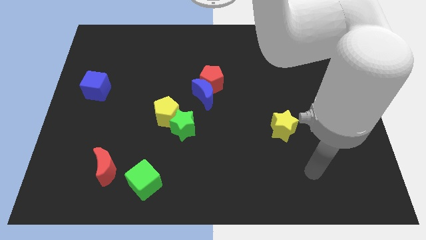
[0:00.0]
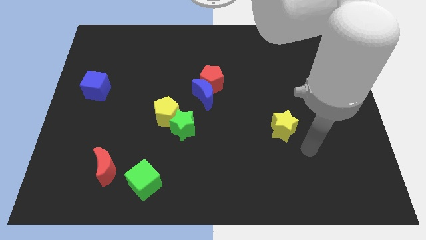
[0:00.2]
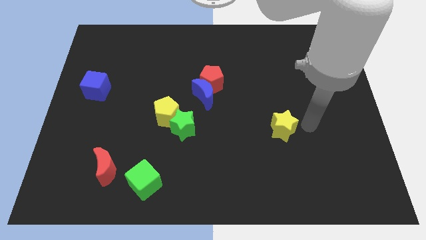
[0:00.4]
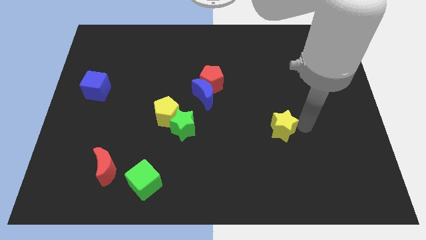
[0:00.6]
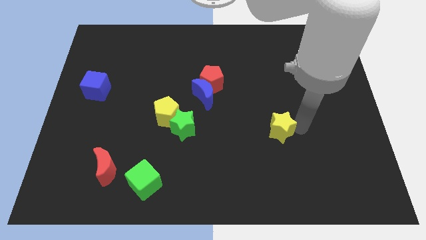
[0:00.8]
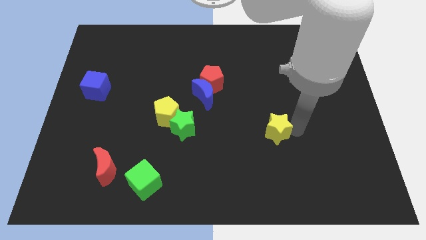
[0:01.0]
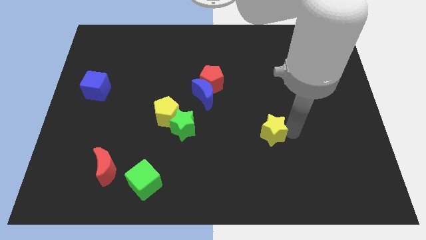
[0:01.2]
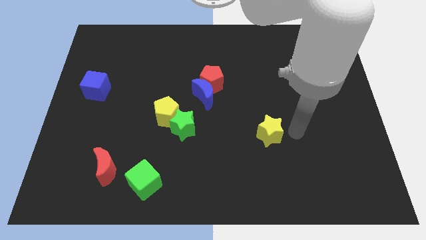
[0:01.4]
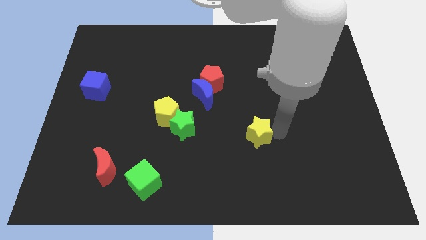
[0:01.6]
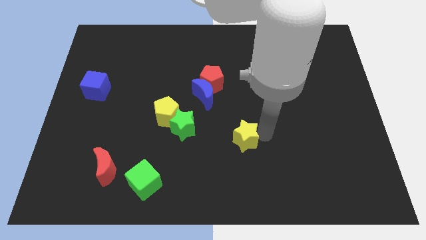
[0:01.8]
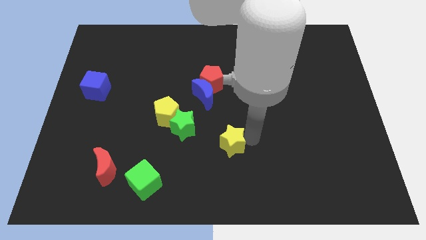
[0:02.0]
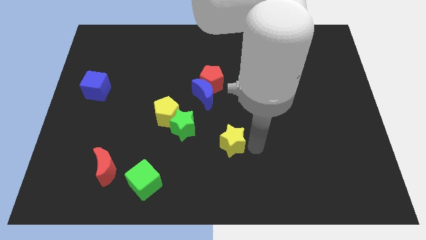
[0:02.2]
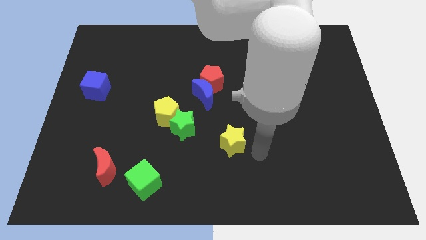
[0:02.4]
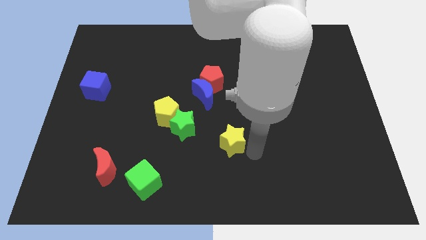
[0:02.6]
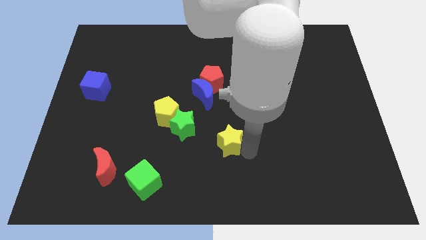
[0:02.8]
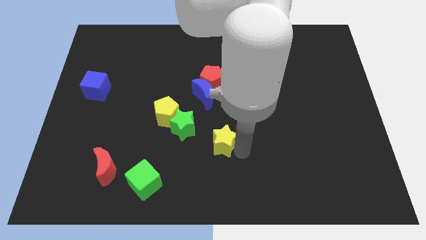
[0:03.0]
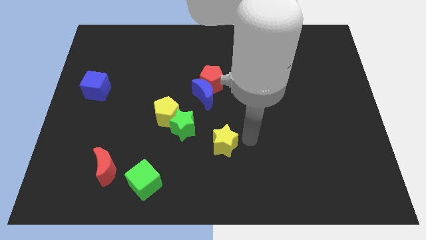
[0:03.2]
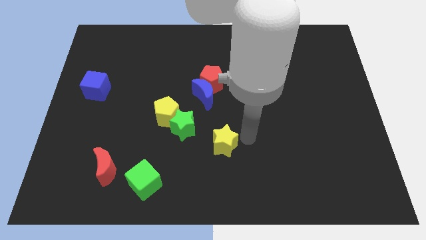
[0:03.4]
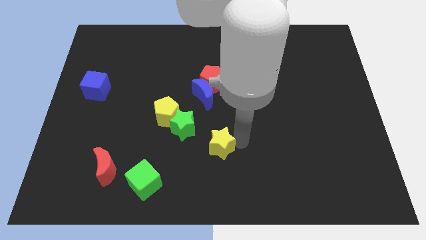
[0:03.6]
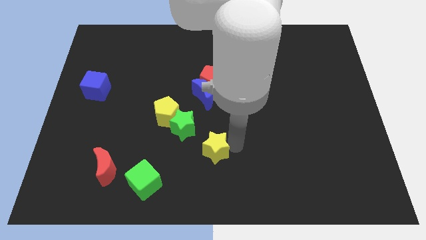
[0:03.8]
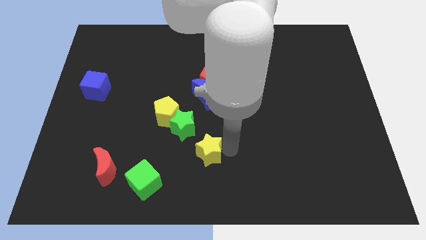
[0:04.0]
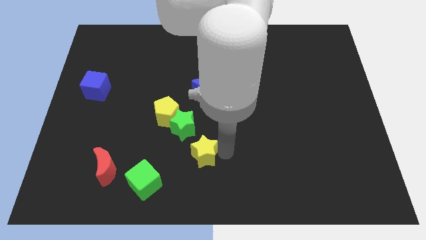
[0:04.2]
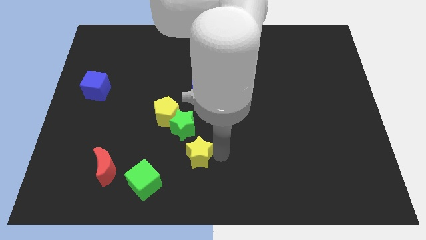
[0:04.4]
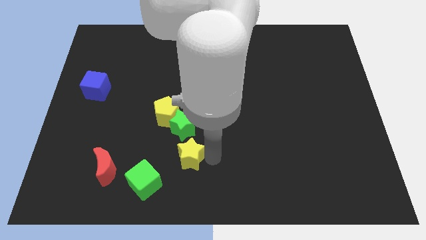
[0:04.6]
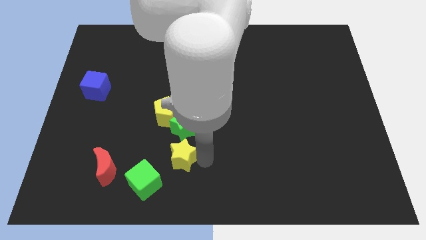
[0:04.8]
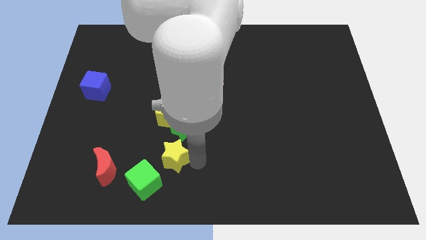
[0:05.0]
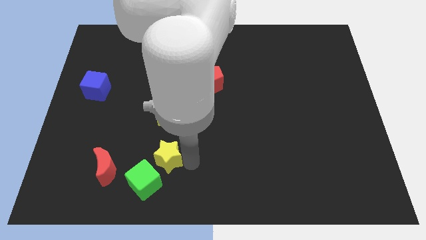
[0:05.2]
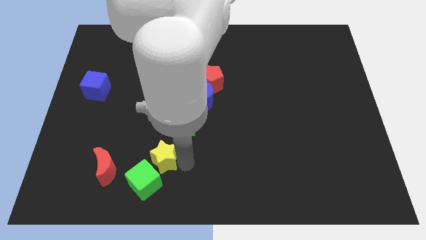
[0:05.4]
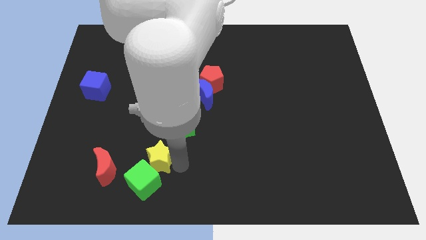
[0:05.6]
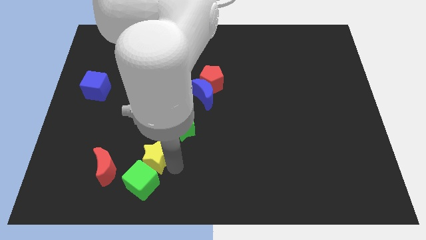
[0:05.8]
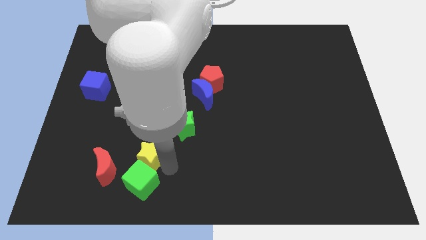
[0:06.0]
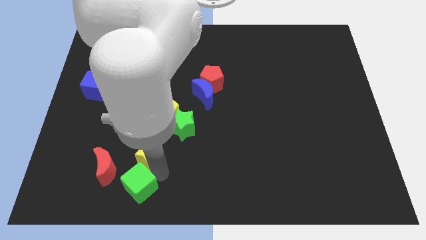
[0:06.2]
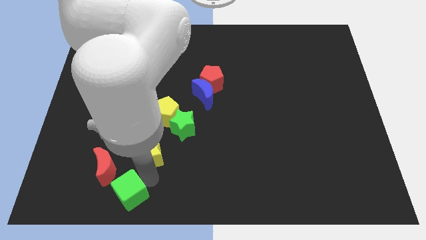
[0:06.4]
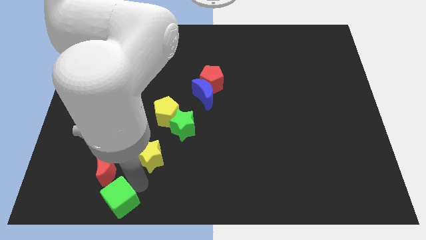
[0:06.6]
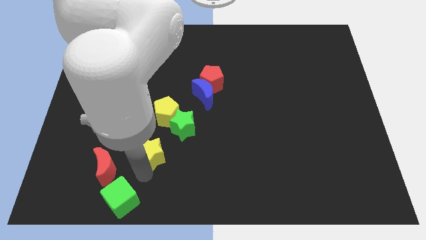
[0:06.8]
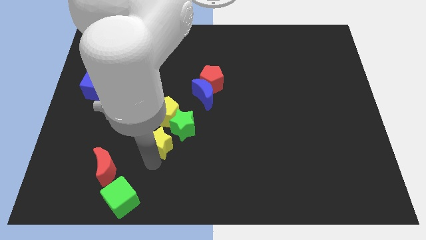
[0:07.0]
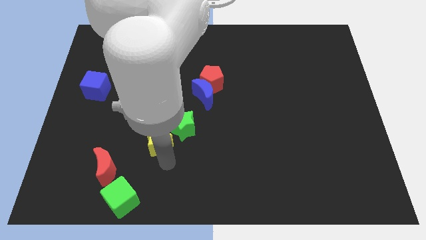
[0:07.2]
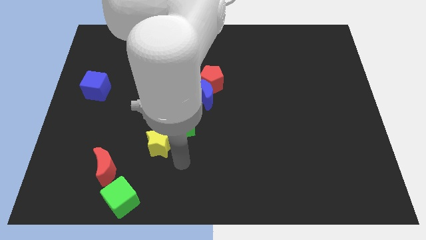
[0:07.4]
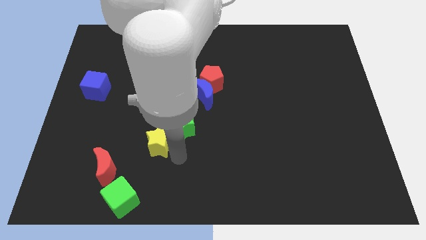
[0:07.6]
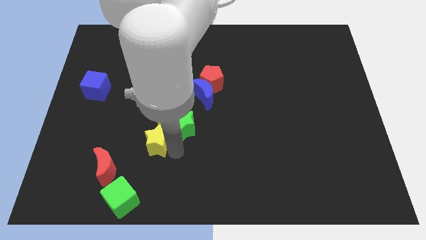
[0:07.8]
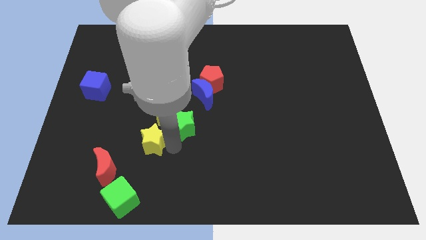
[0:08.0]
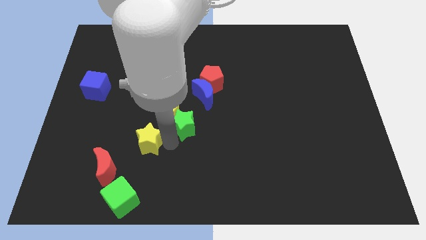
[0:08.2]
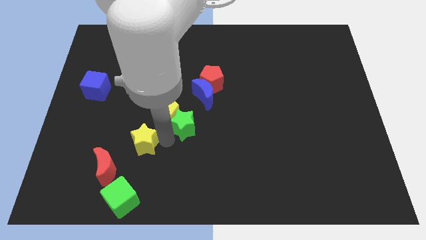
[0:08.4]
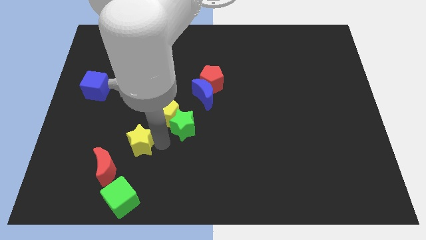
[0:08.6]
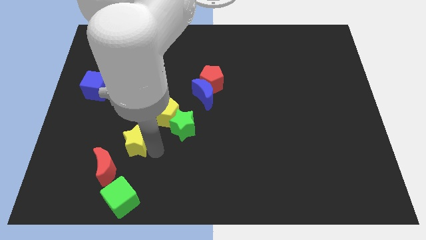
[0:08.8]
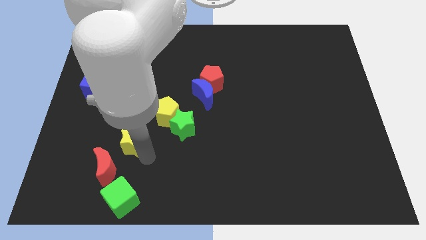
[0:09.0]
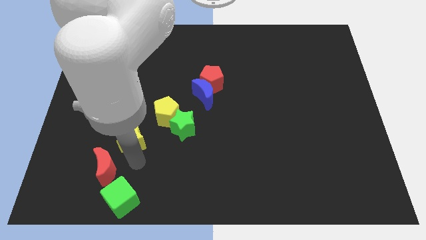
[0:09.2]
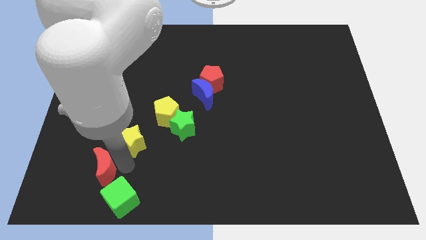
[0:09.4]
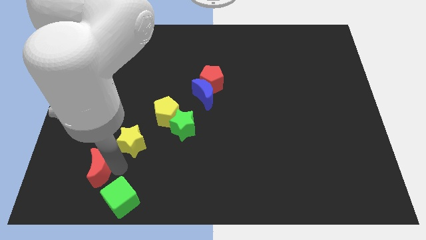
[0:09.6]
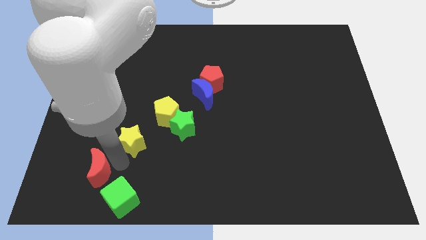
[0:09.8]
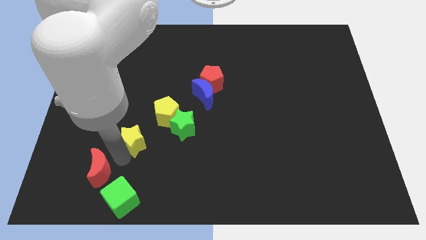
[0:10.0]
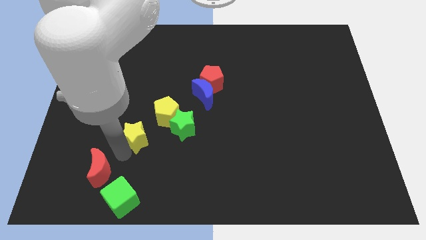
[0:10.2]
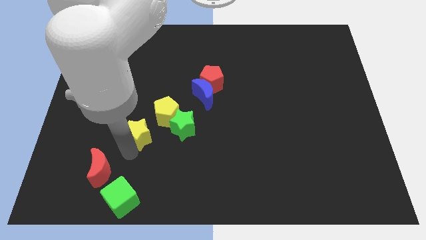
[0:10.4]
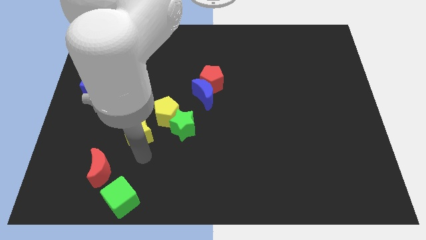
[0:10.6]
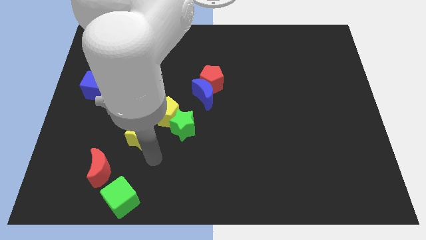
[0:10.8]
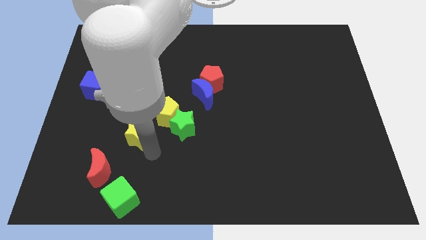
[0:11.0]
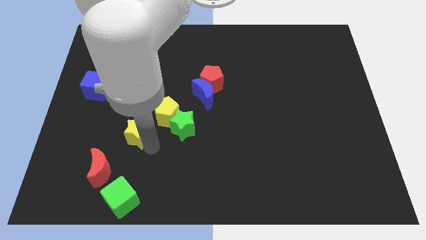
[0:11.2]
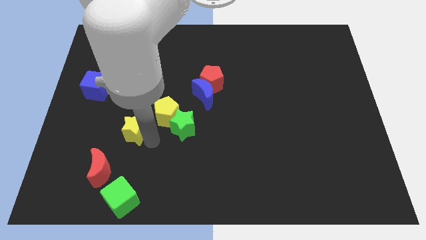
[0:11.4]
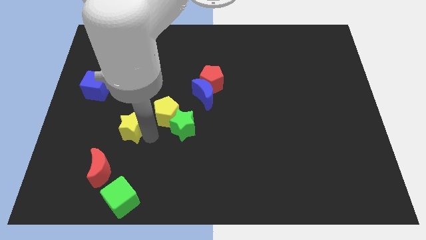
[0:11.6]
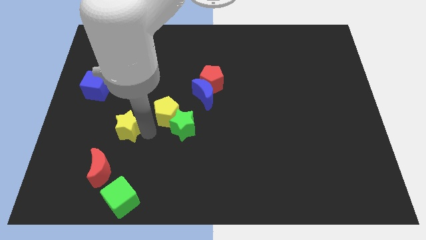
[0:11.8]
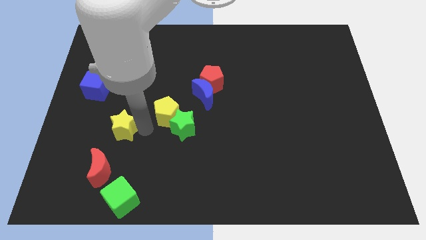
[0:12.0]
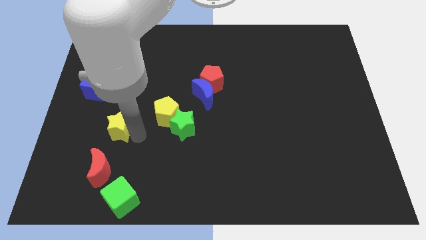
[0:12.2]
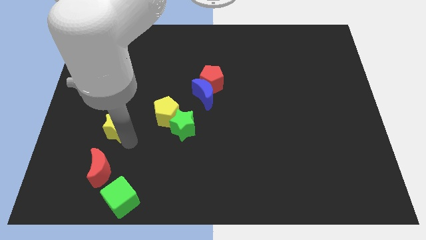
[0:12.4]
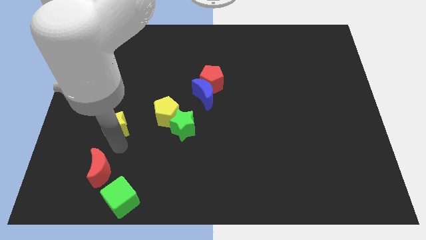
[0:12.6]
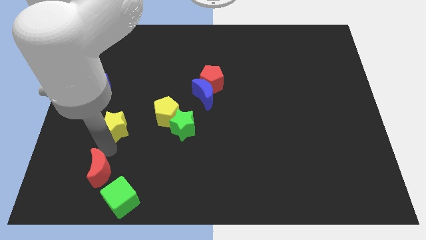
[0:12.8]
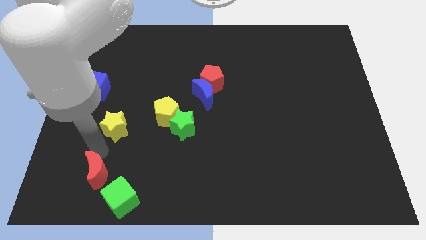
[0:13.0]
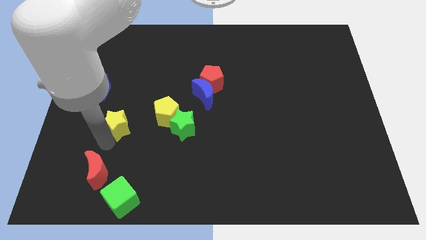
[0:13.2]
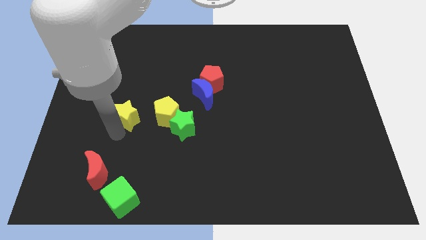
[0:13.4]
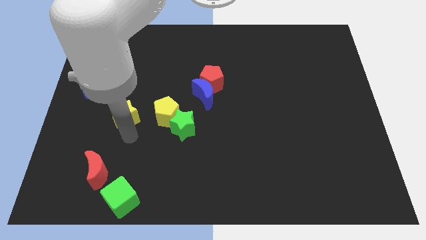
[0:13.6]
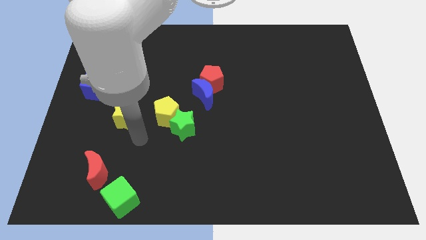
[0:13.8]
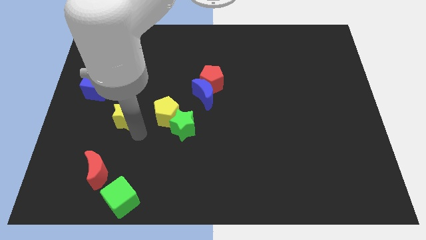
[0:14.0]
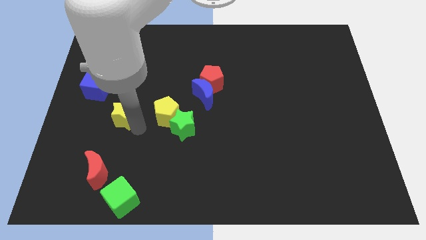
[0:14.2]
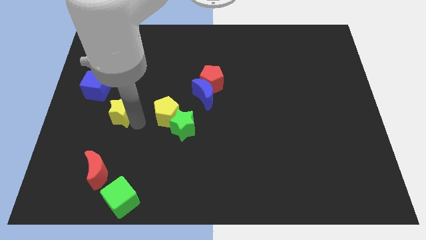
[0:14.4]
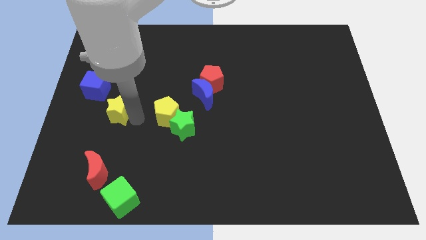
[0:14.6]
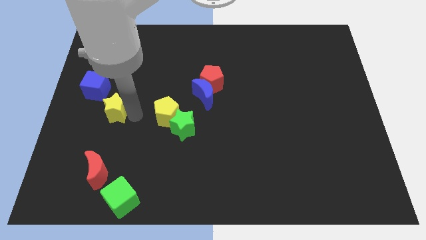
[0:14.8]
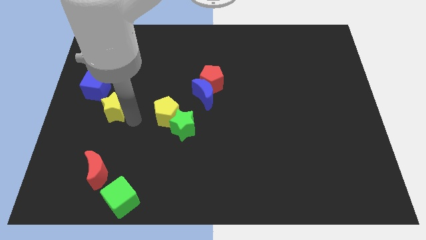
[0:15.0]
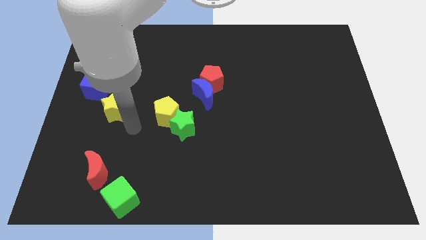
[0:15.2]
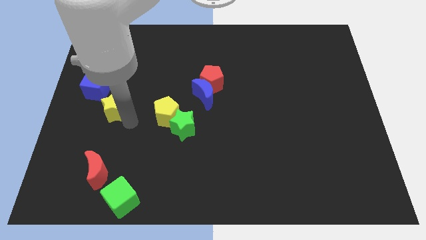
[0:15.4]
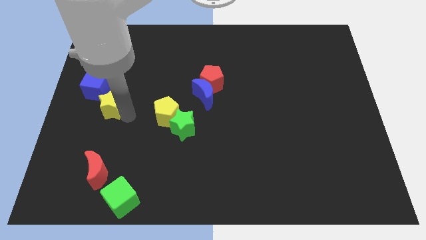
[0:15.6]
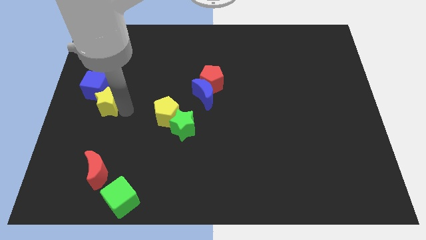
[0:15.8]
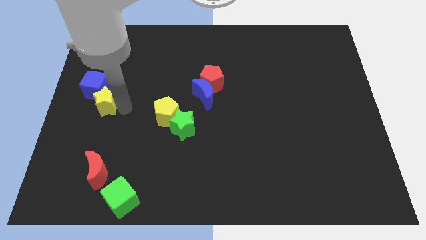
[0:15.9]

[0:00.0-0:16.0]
move the yellow star next to the blue cube
